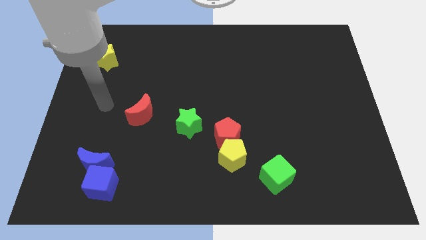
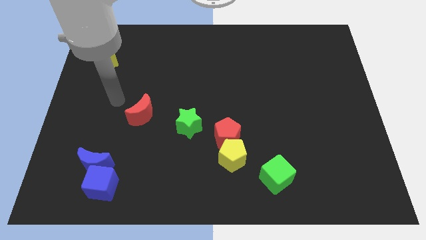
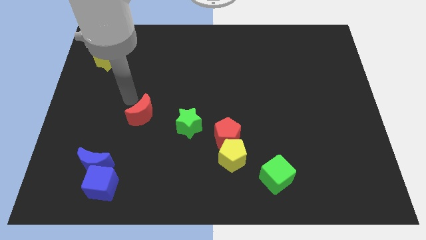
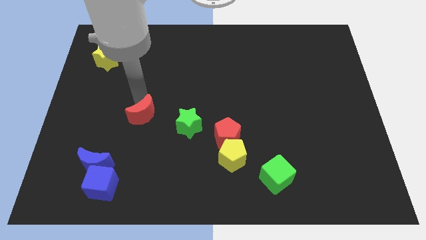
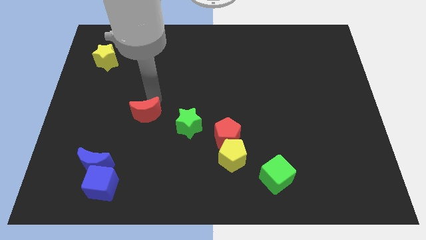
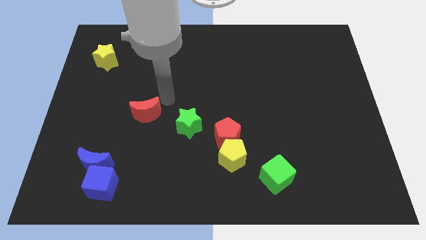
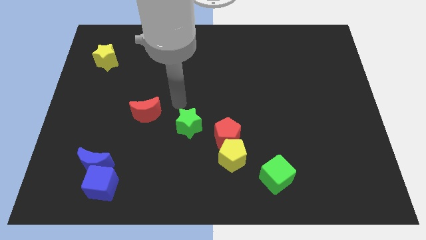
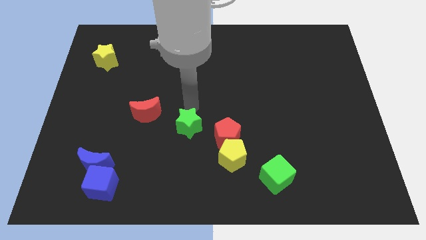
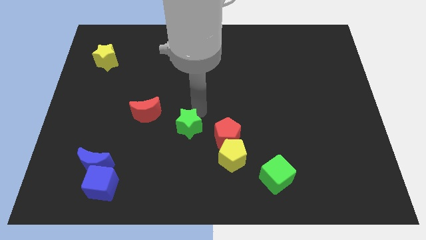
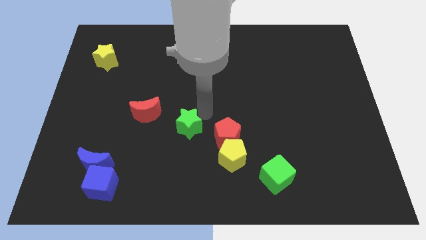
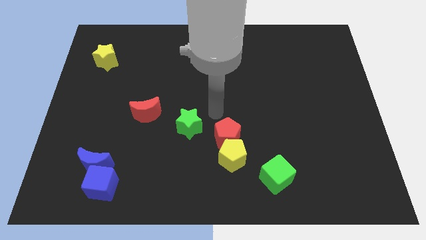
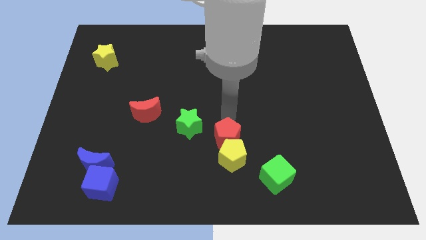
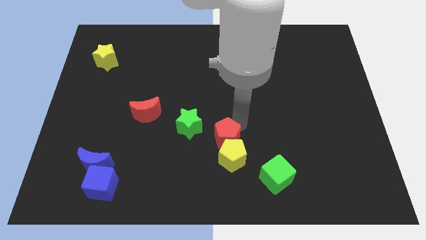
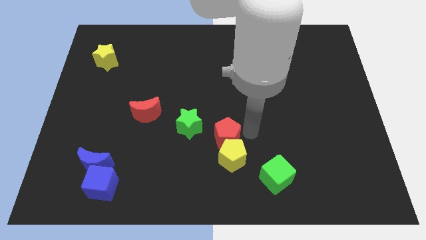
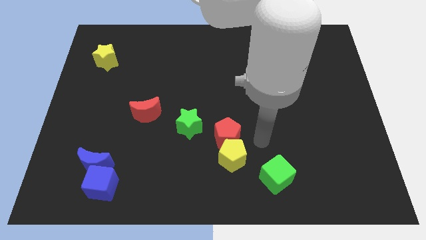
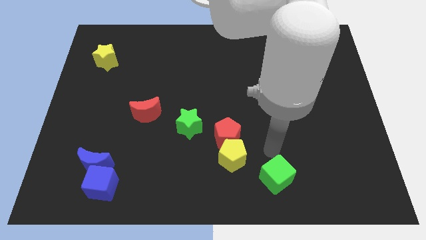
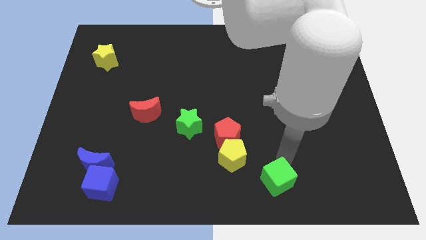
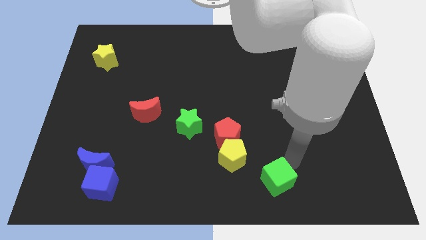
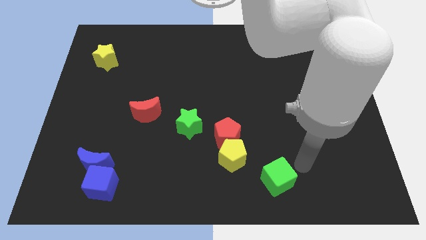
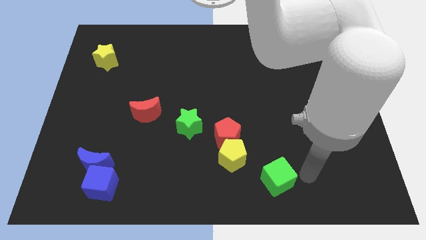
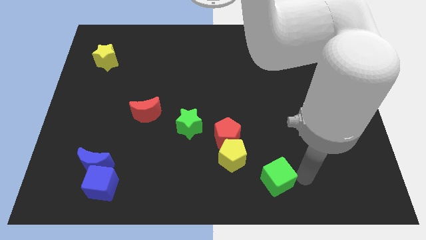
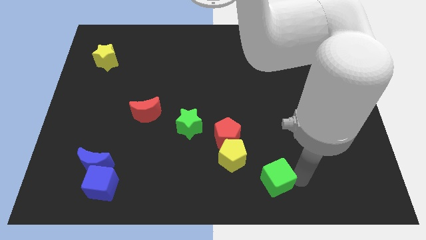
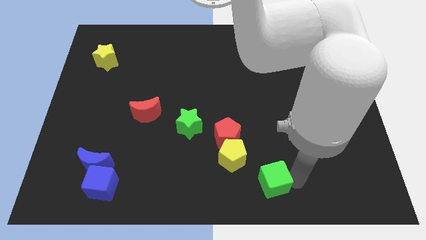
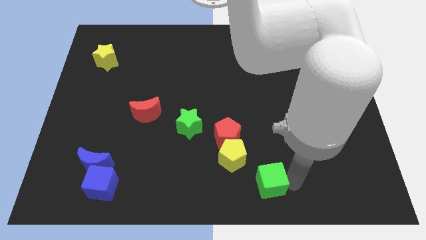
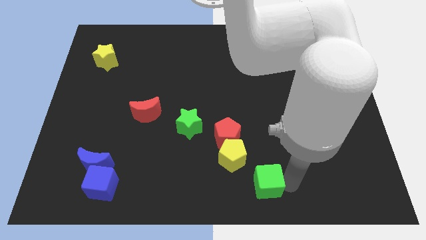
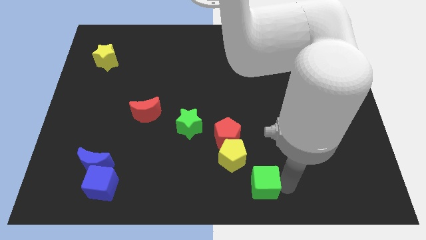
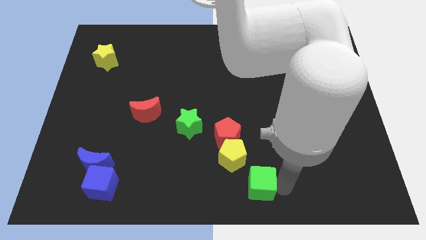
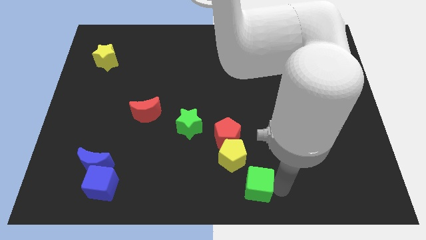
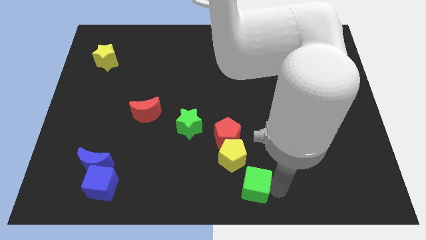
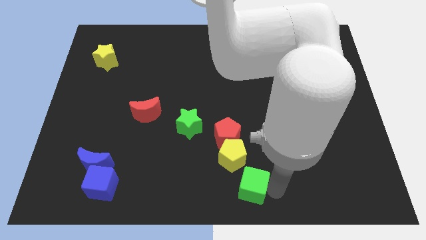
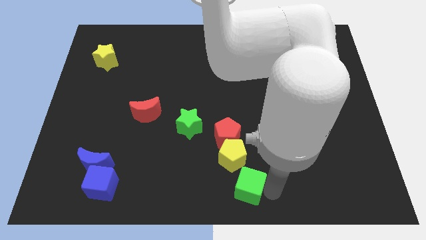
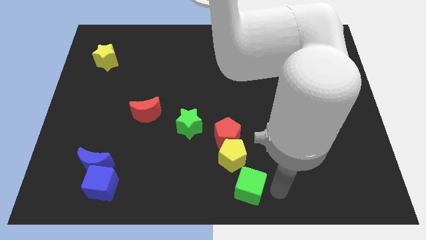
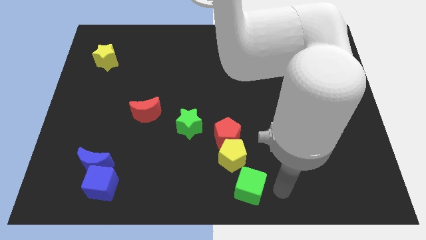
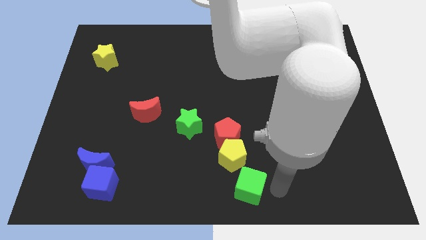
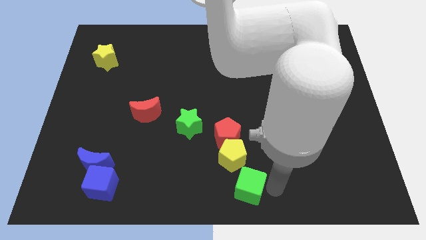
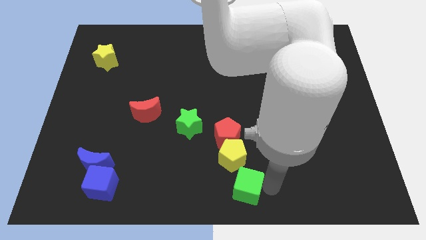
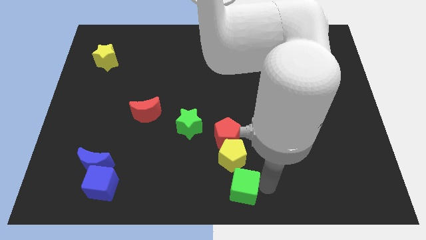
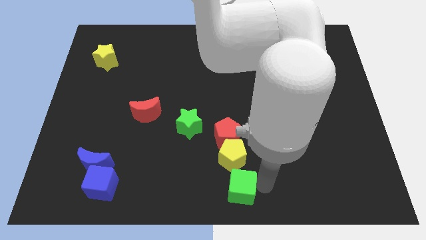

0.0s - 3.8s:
slide the green cube slightly to the left

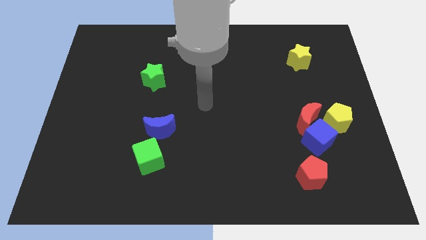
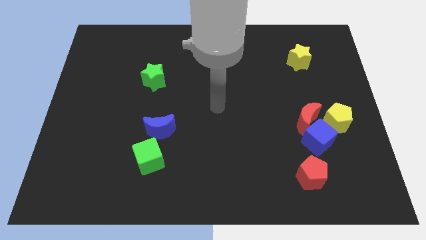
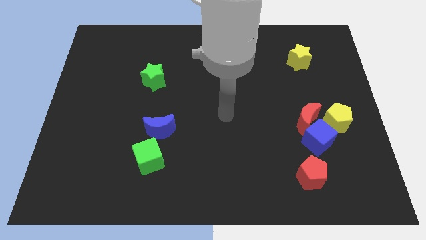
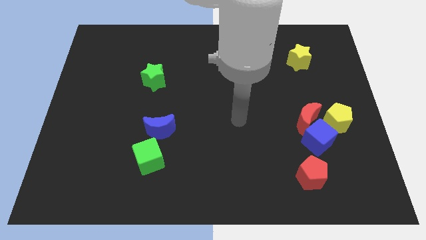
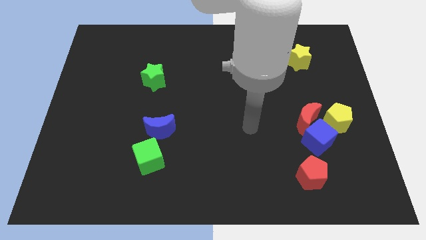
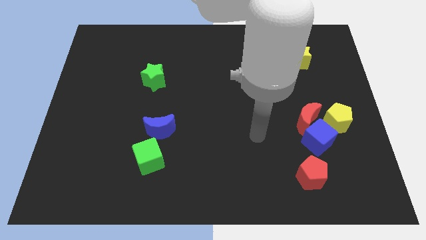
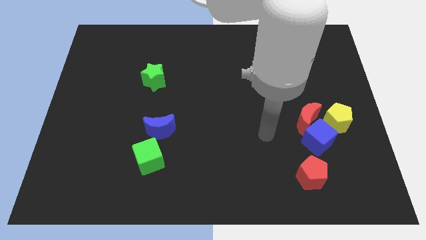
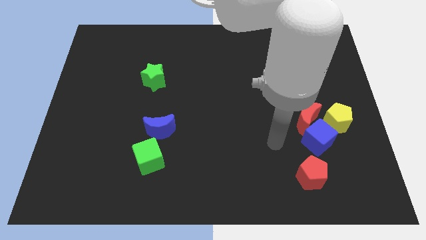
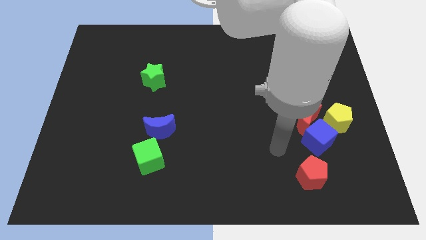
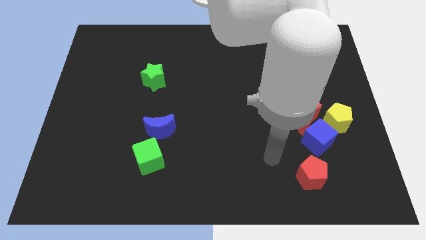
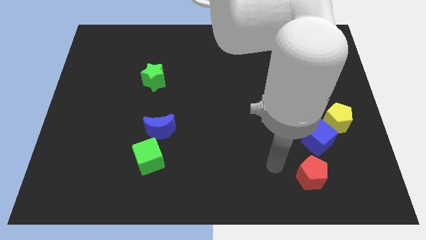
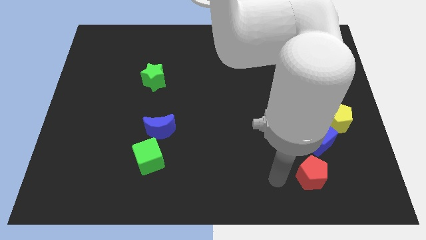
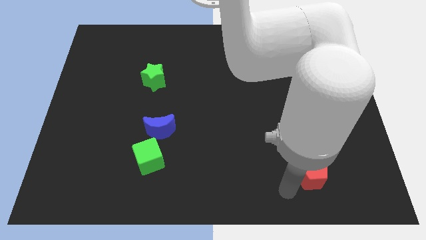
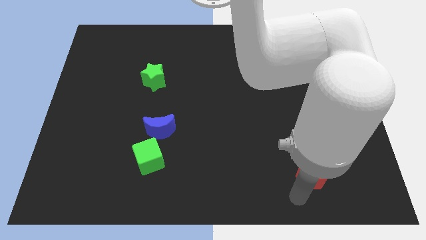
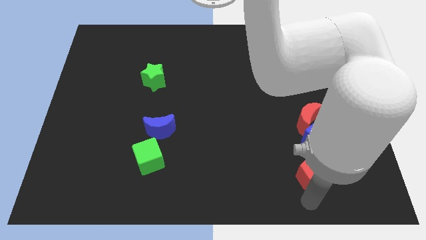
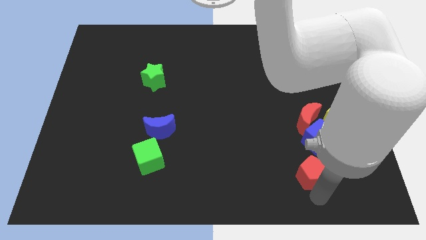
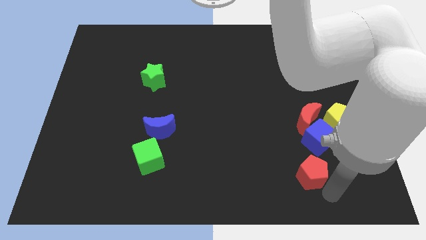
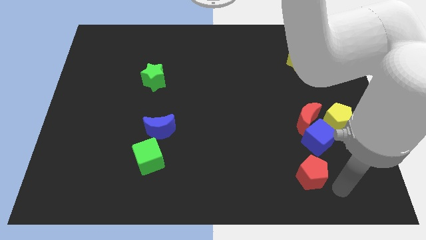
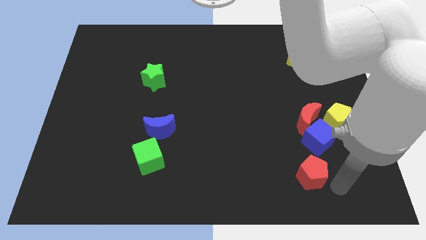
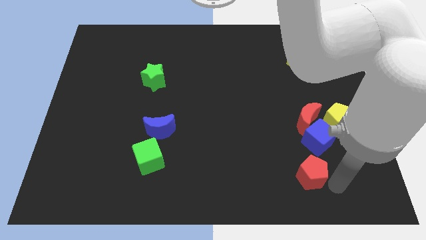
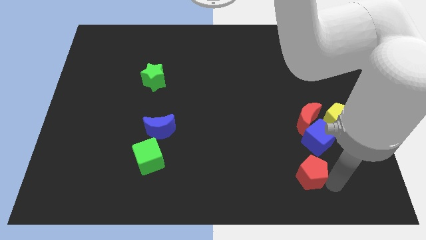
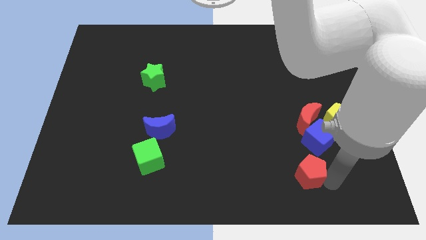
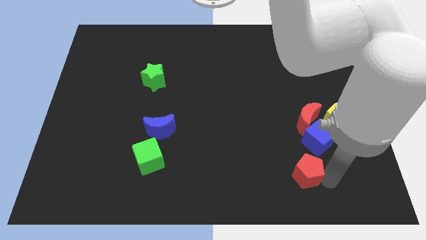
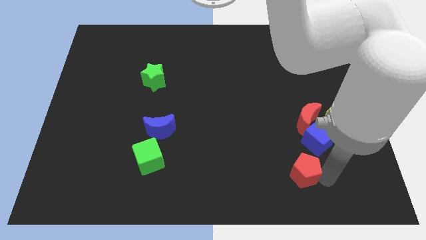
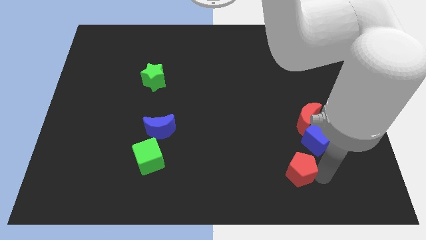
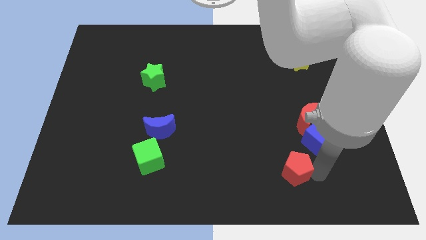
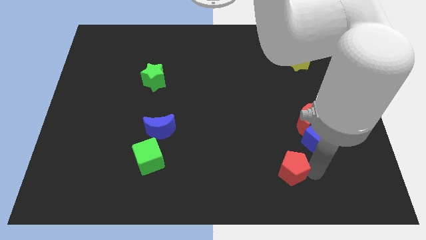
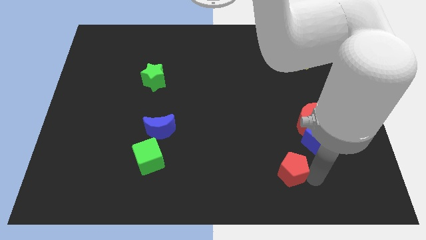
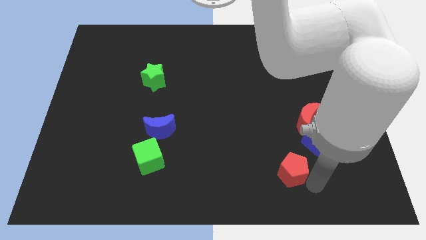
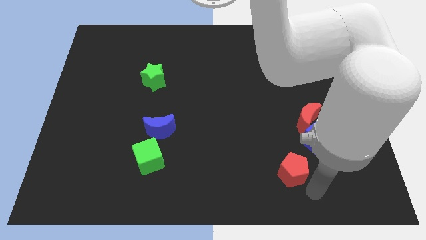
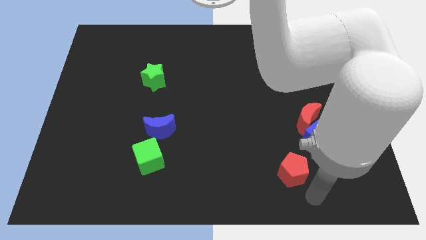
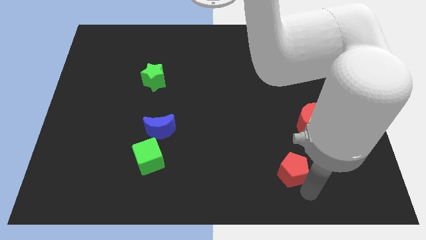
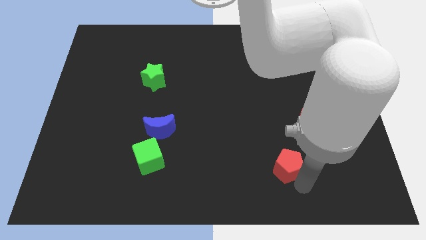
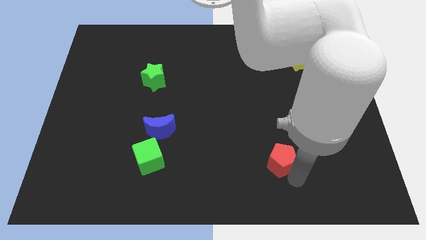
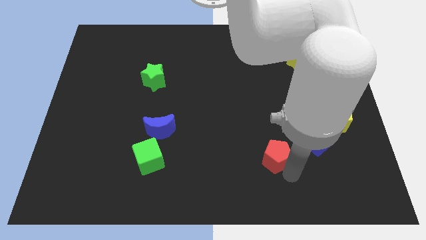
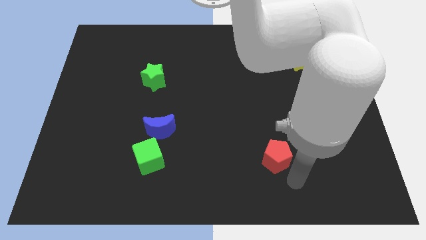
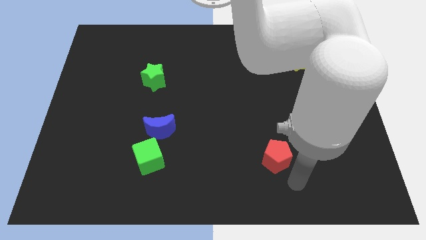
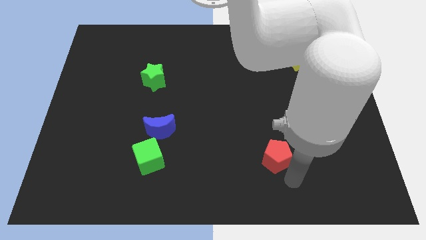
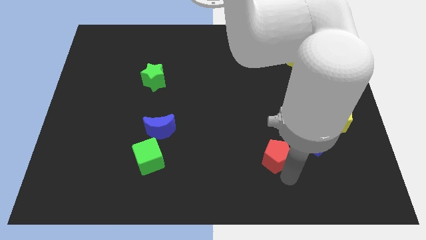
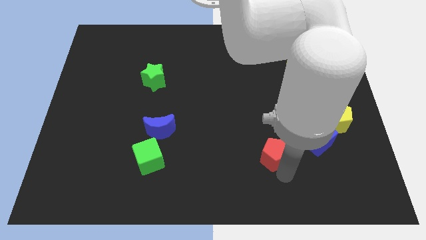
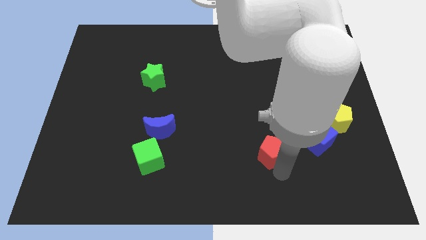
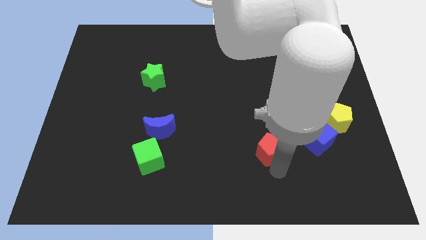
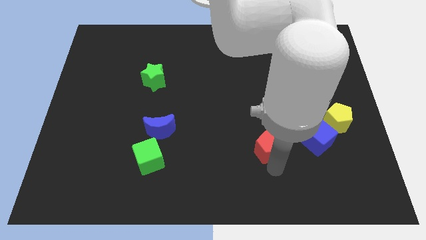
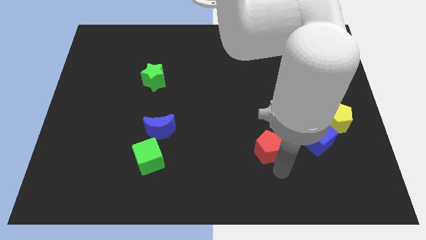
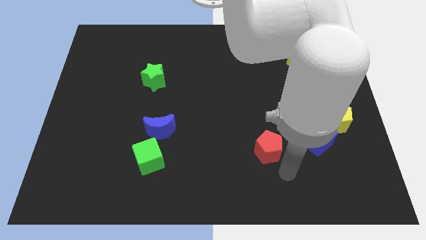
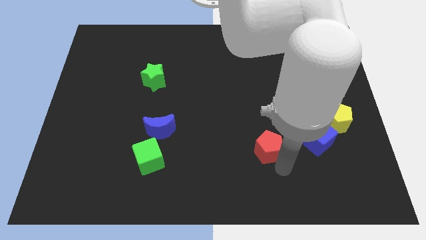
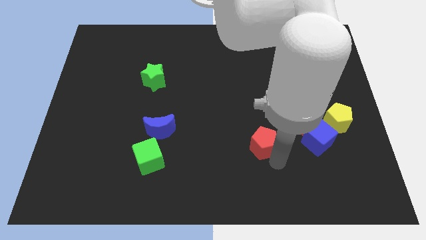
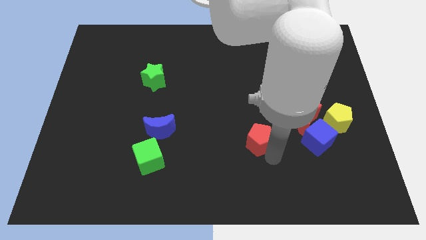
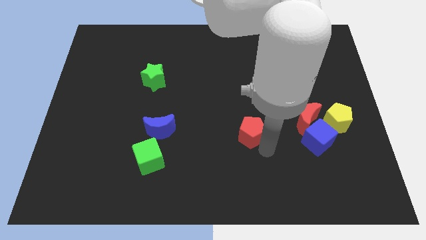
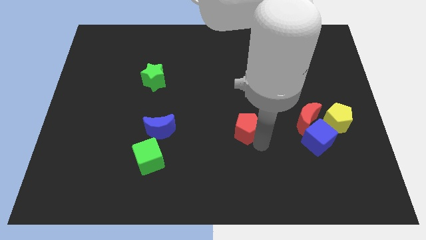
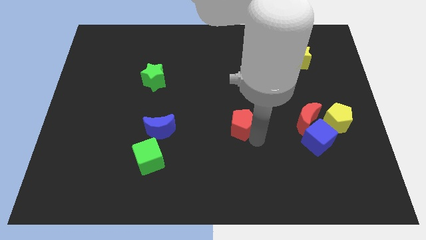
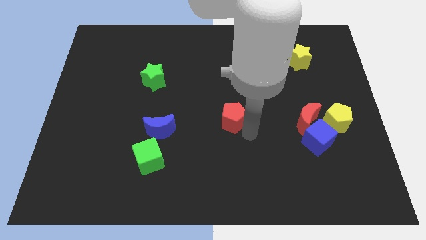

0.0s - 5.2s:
slide the red pentagon diagonally up and to the left
